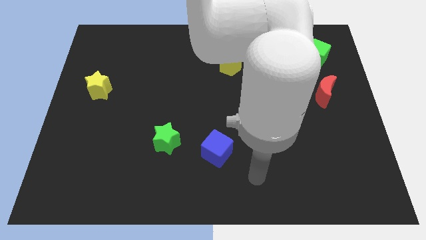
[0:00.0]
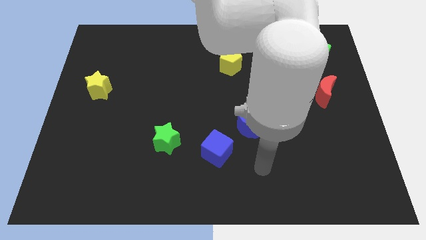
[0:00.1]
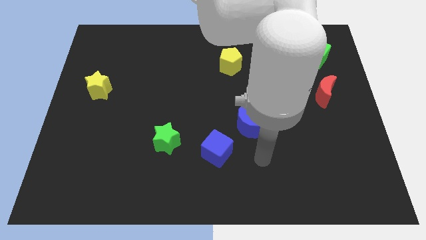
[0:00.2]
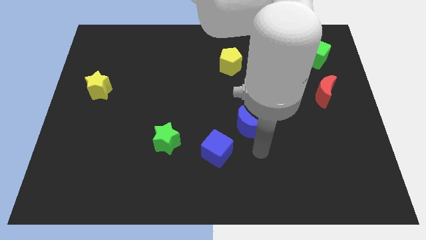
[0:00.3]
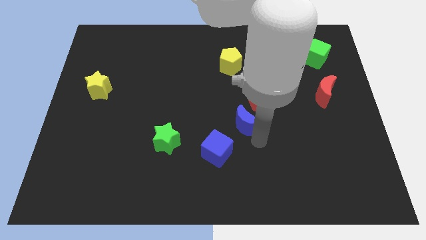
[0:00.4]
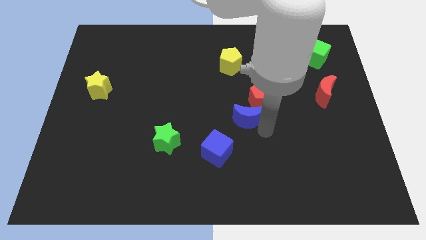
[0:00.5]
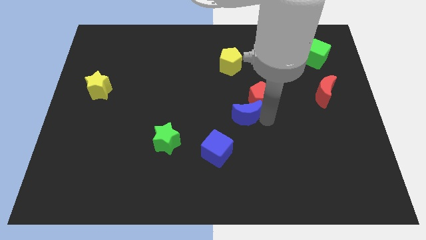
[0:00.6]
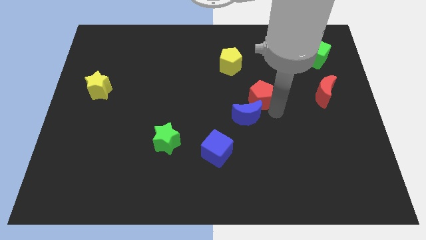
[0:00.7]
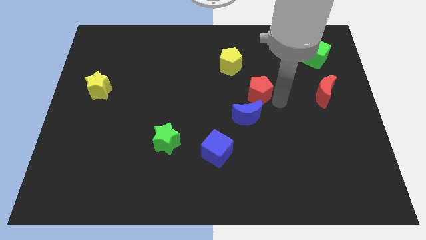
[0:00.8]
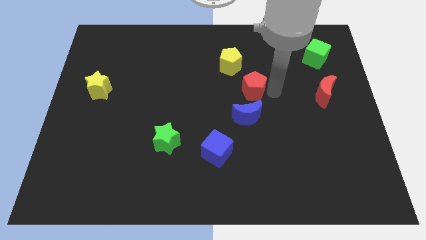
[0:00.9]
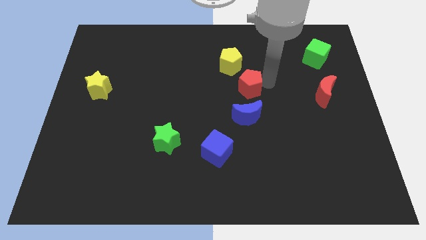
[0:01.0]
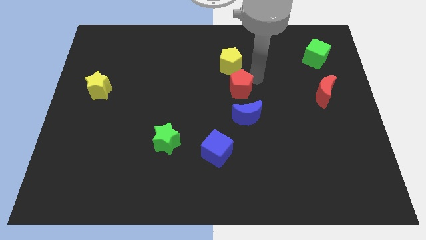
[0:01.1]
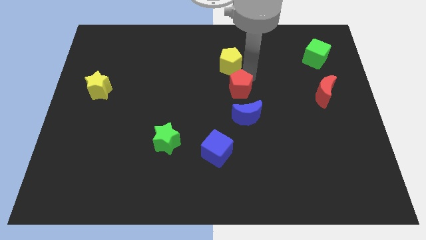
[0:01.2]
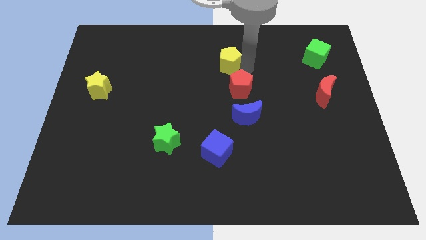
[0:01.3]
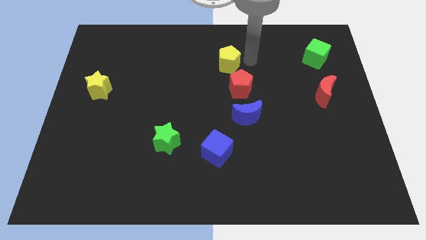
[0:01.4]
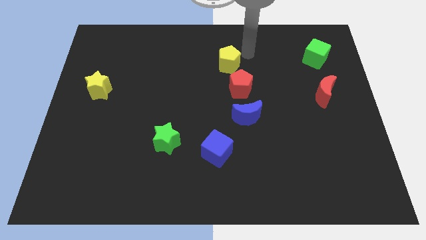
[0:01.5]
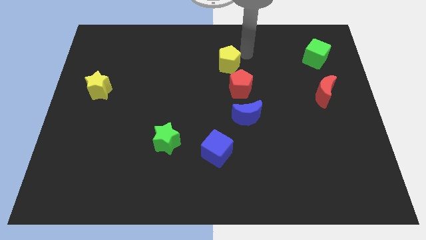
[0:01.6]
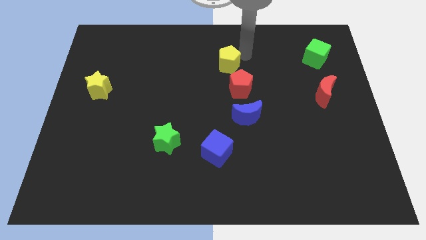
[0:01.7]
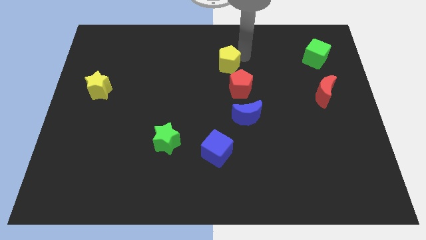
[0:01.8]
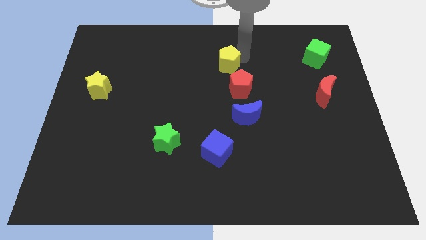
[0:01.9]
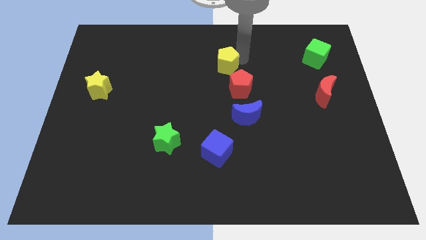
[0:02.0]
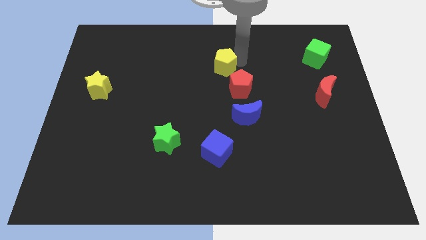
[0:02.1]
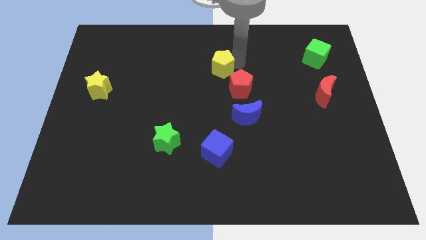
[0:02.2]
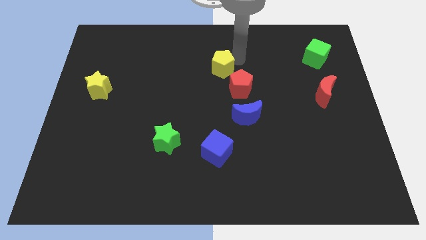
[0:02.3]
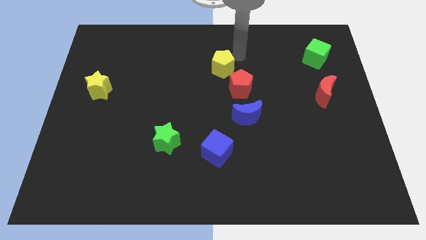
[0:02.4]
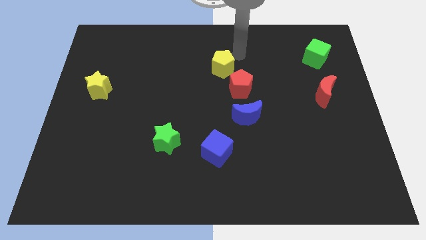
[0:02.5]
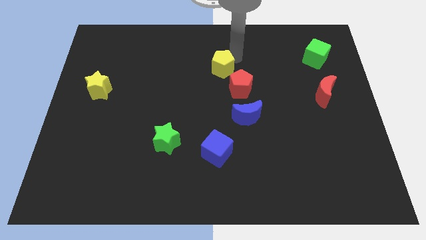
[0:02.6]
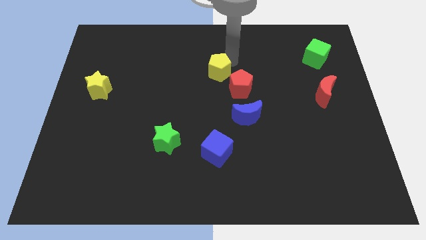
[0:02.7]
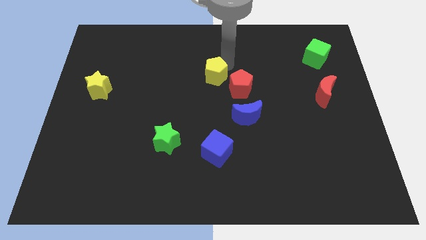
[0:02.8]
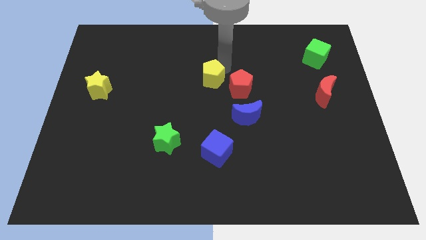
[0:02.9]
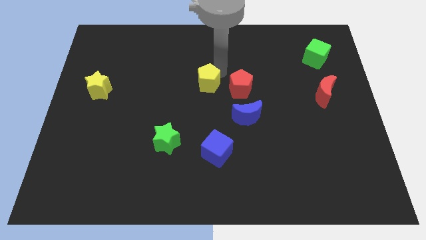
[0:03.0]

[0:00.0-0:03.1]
push the yellow pentagon down and left diagonally a little

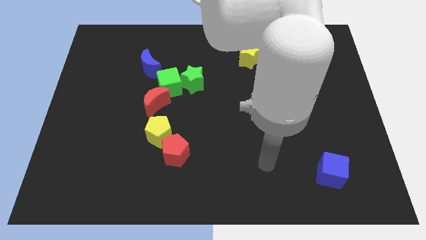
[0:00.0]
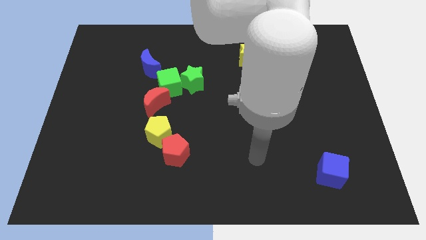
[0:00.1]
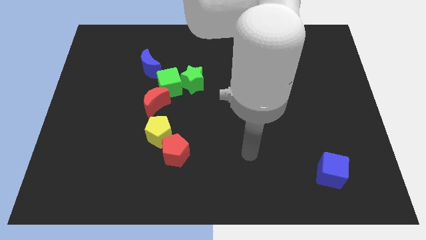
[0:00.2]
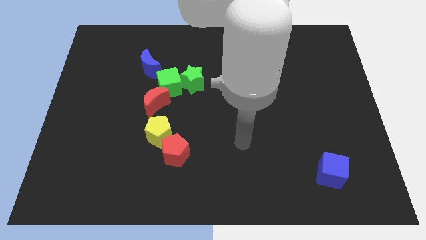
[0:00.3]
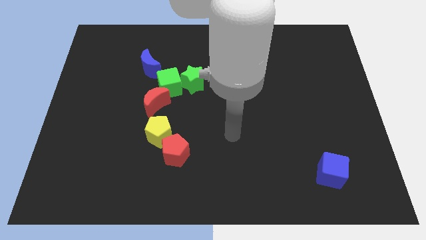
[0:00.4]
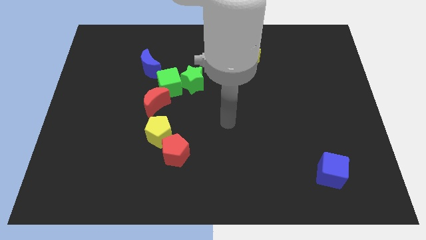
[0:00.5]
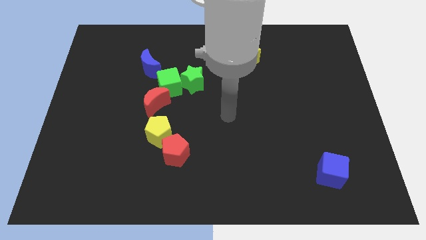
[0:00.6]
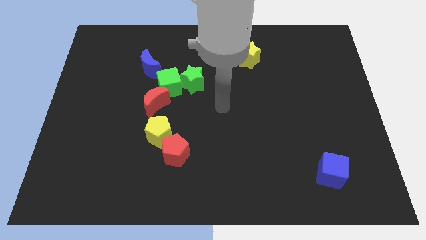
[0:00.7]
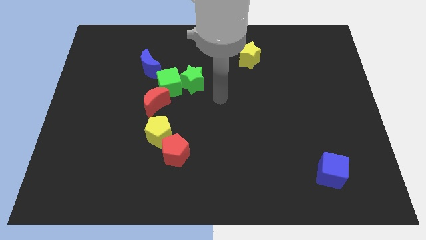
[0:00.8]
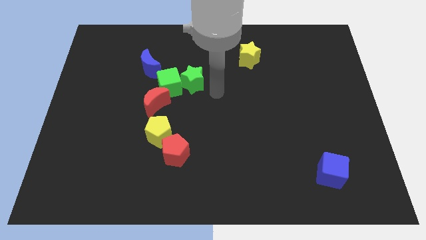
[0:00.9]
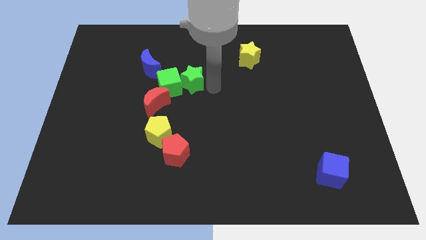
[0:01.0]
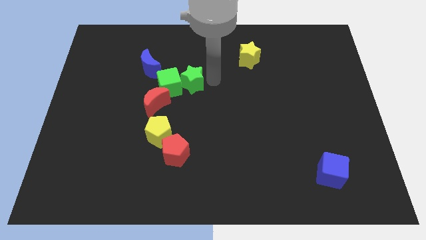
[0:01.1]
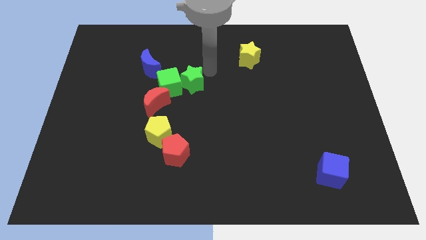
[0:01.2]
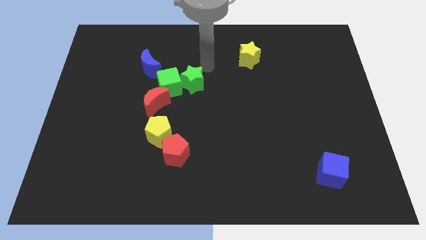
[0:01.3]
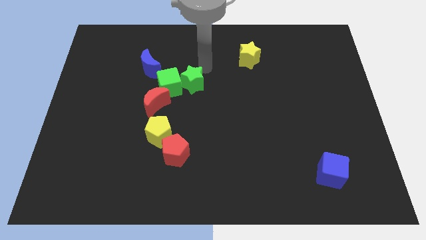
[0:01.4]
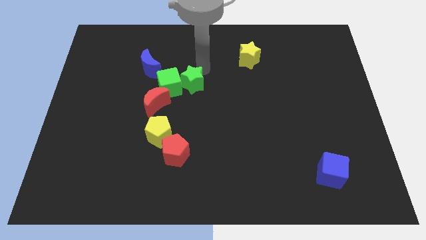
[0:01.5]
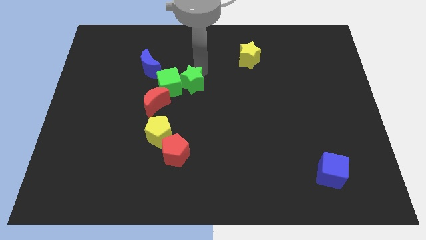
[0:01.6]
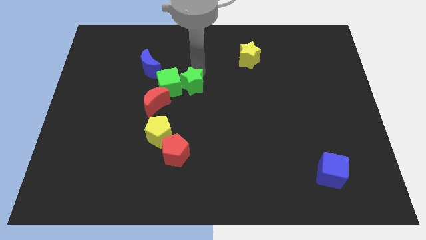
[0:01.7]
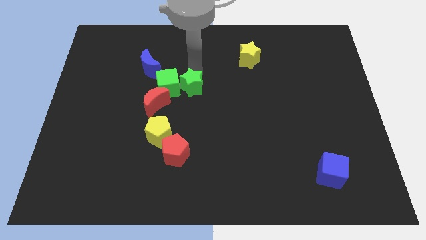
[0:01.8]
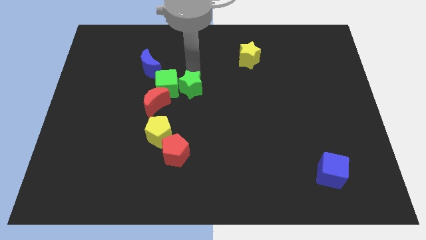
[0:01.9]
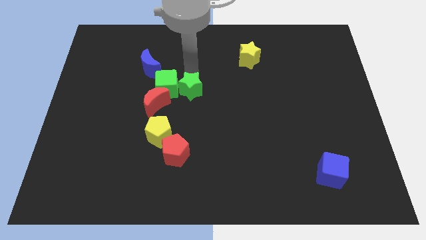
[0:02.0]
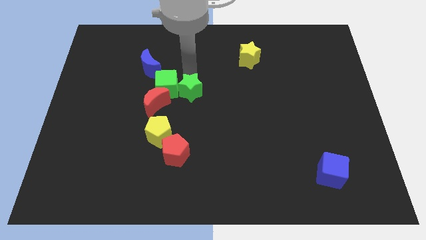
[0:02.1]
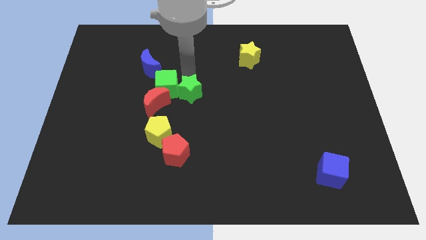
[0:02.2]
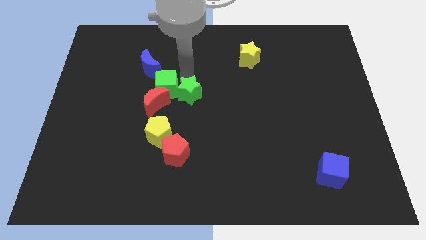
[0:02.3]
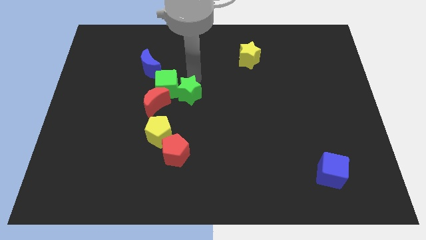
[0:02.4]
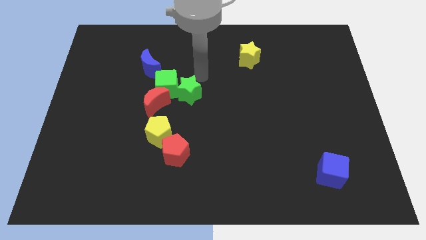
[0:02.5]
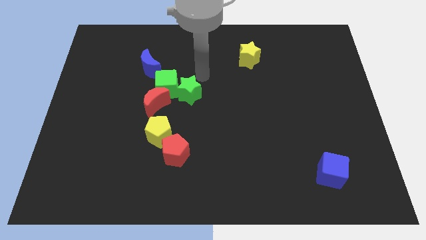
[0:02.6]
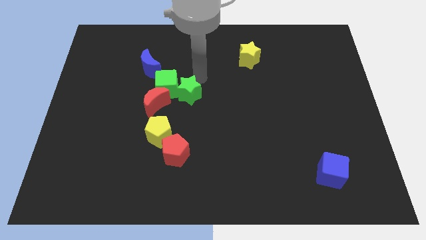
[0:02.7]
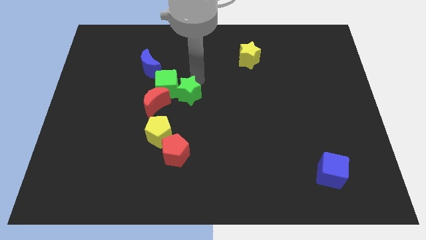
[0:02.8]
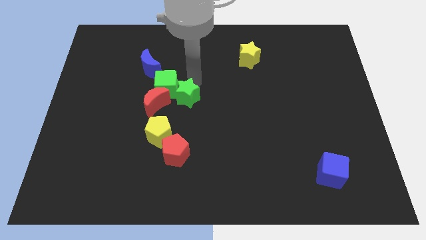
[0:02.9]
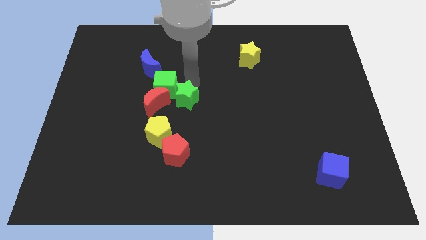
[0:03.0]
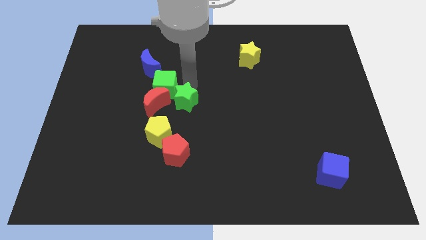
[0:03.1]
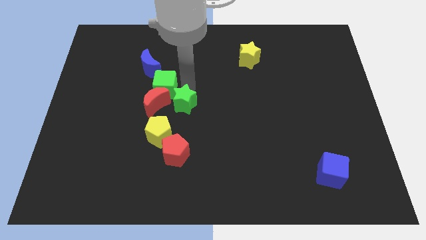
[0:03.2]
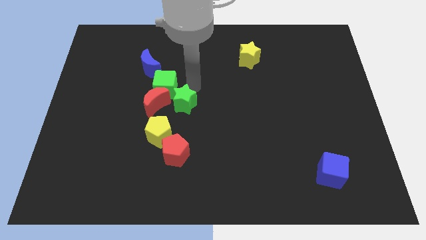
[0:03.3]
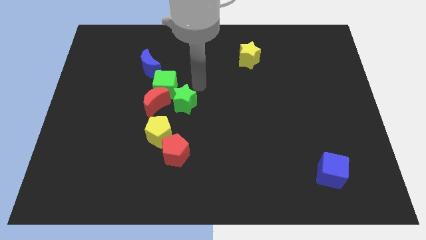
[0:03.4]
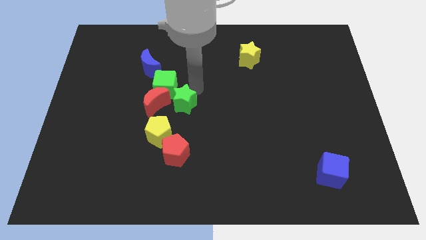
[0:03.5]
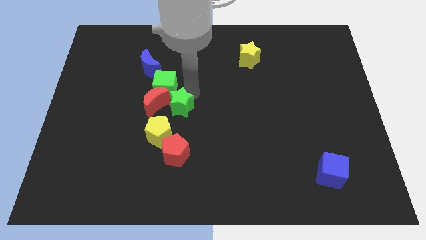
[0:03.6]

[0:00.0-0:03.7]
move the green star downwards and to the left a bit

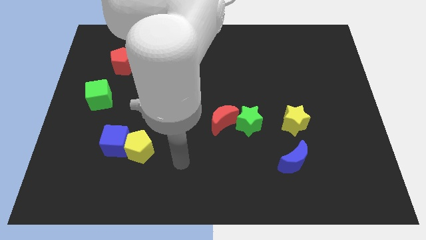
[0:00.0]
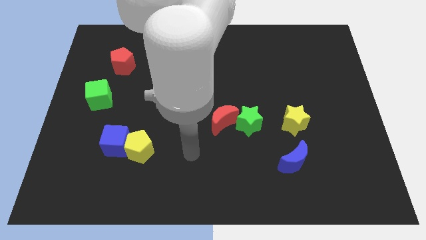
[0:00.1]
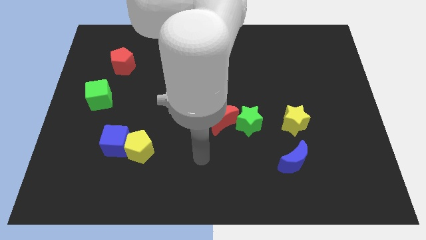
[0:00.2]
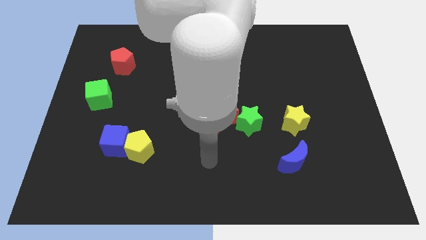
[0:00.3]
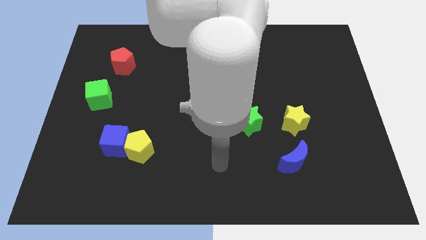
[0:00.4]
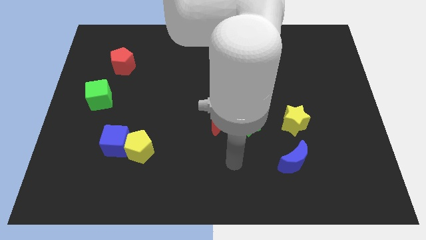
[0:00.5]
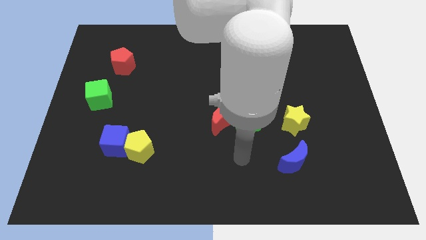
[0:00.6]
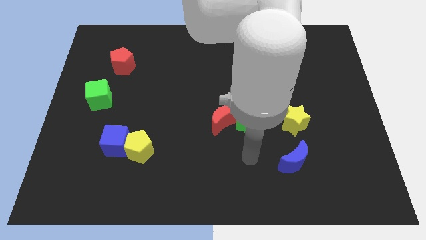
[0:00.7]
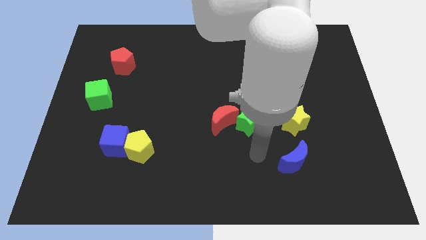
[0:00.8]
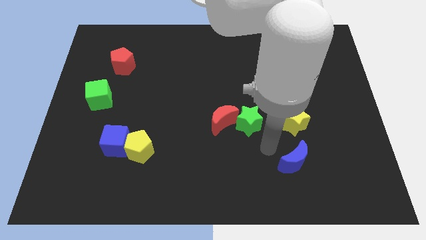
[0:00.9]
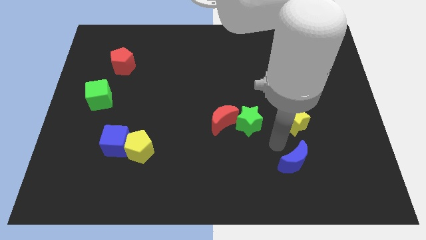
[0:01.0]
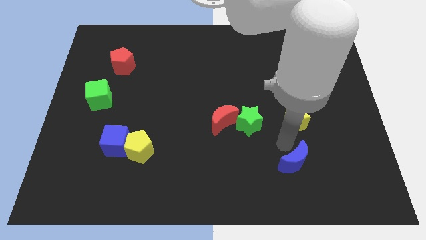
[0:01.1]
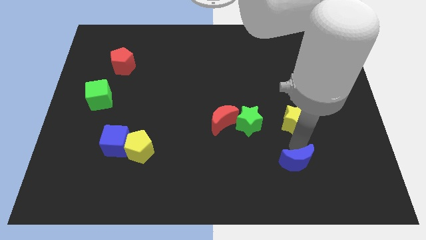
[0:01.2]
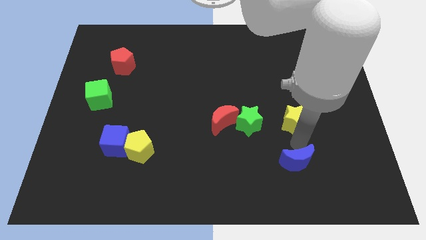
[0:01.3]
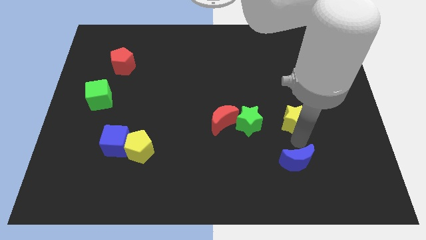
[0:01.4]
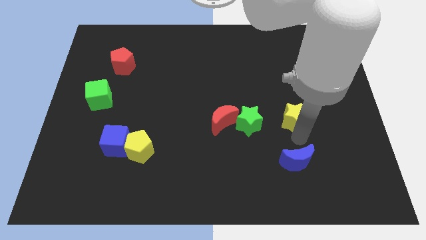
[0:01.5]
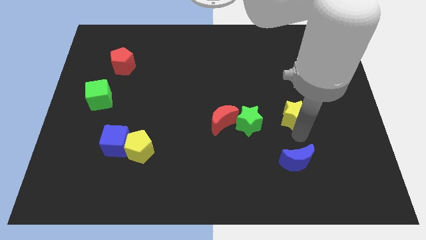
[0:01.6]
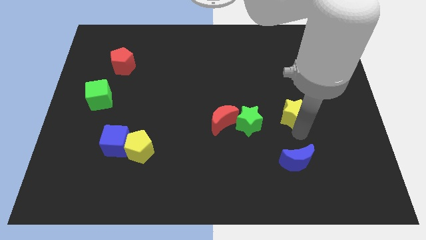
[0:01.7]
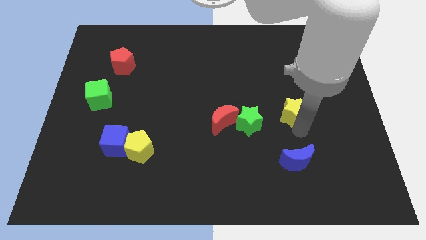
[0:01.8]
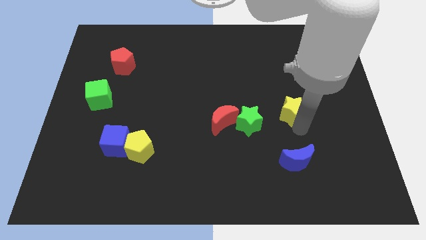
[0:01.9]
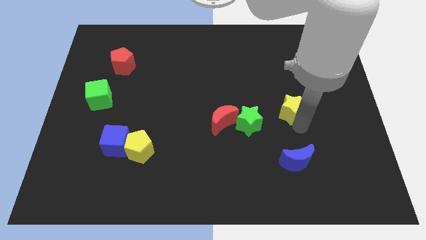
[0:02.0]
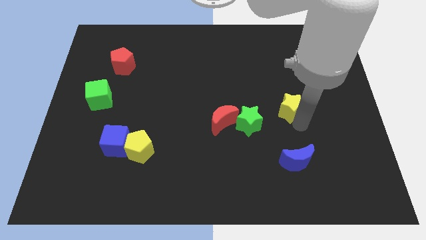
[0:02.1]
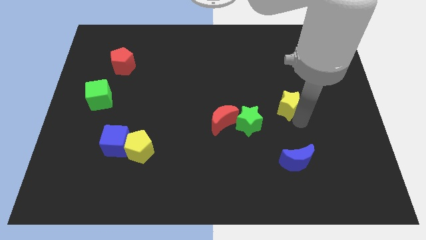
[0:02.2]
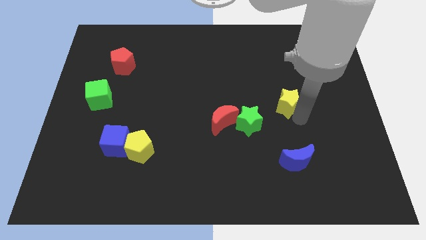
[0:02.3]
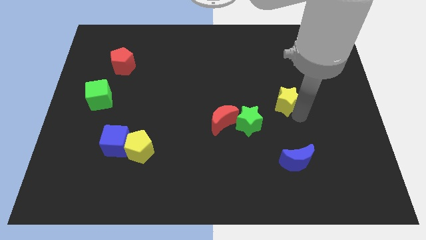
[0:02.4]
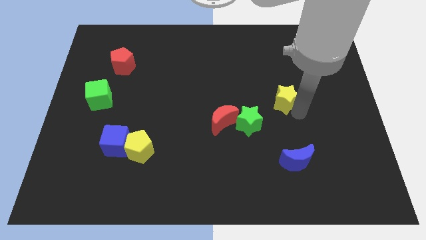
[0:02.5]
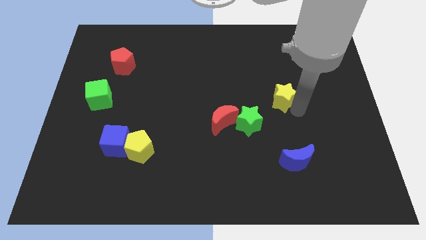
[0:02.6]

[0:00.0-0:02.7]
move the yellow star a little upwards
